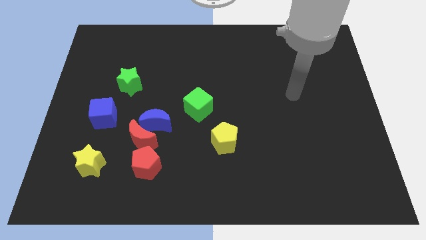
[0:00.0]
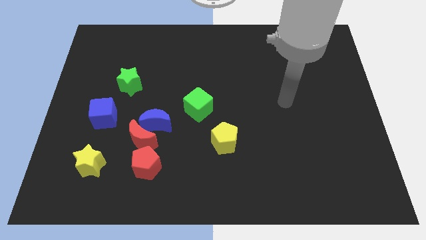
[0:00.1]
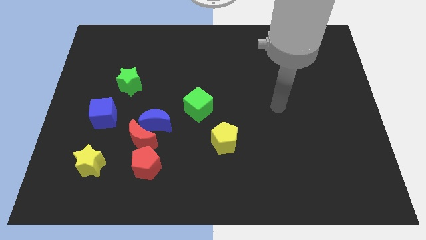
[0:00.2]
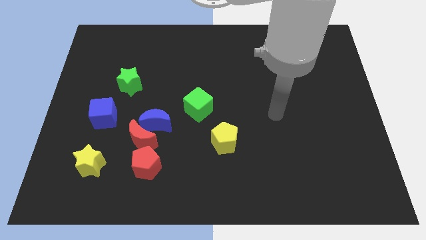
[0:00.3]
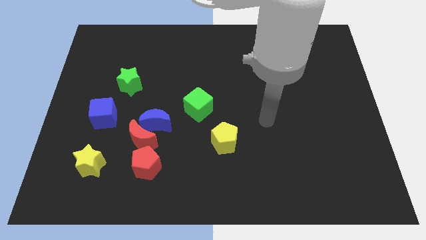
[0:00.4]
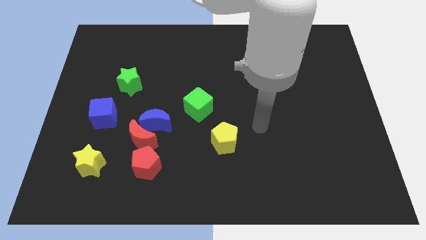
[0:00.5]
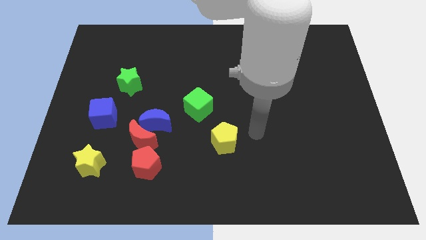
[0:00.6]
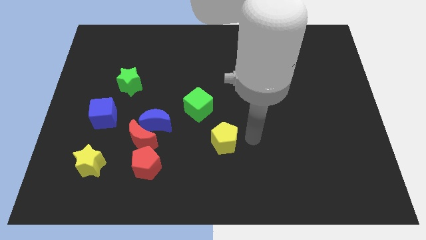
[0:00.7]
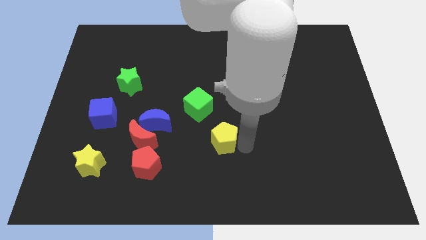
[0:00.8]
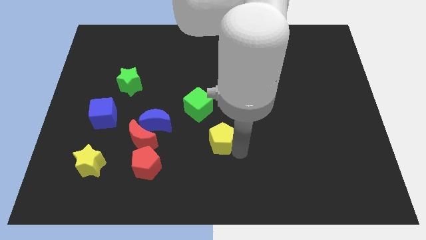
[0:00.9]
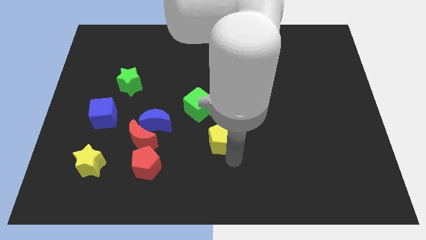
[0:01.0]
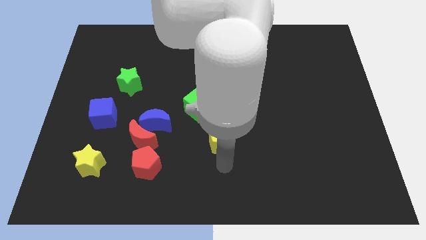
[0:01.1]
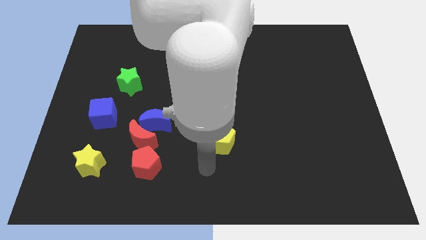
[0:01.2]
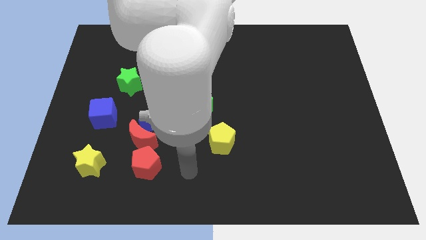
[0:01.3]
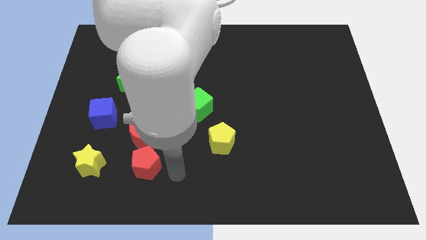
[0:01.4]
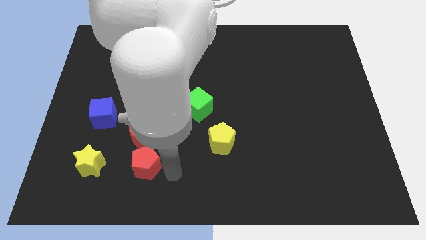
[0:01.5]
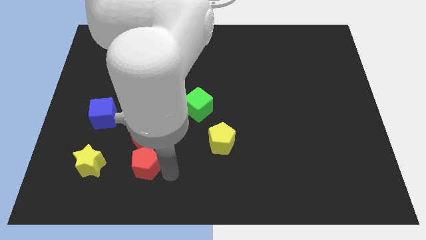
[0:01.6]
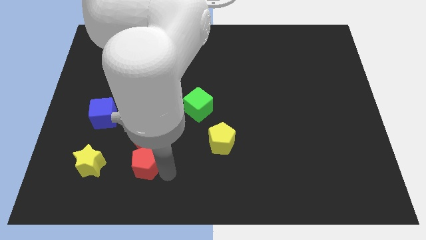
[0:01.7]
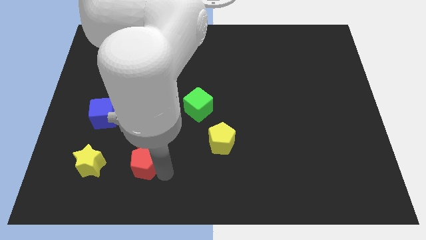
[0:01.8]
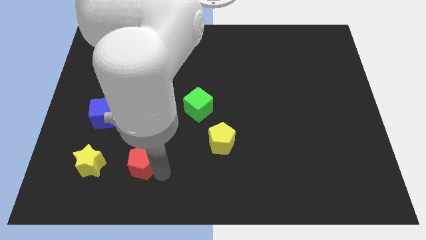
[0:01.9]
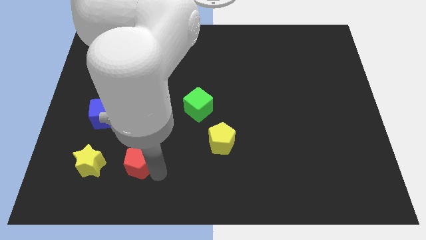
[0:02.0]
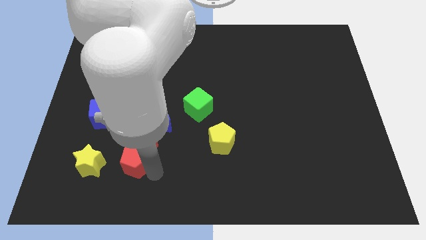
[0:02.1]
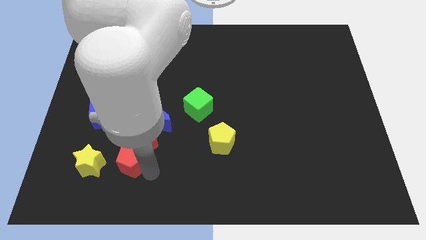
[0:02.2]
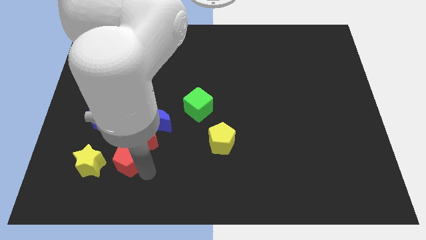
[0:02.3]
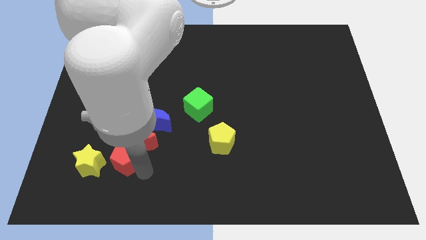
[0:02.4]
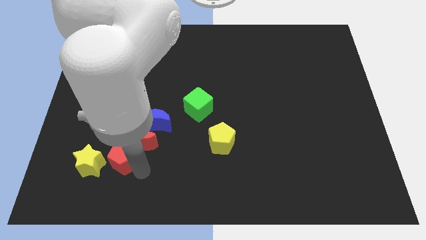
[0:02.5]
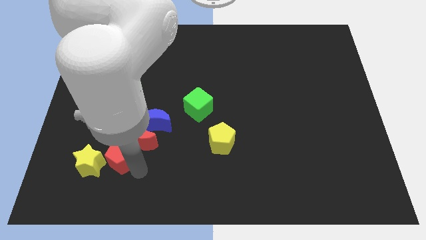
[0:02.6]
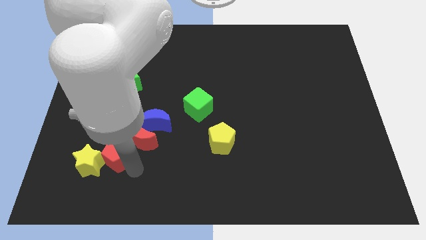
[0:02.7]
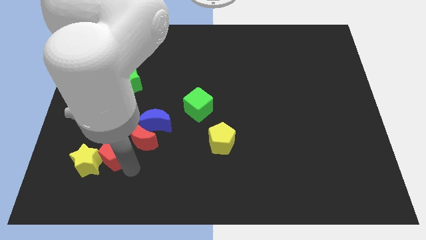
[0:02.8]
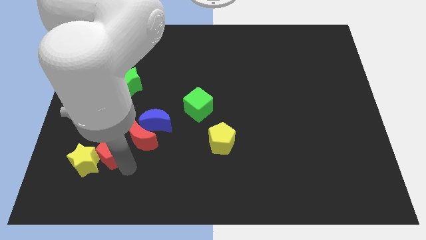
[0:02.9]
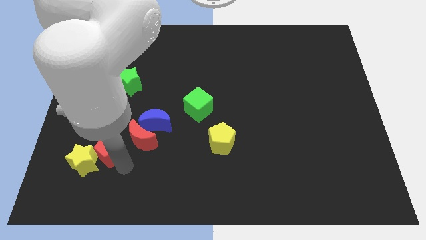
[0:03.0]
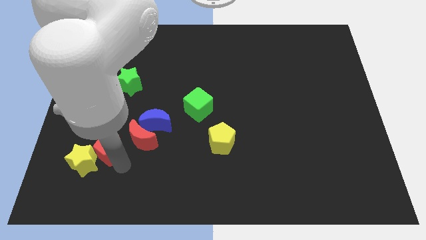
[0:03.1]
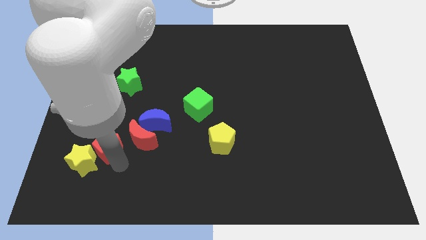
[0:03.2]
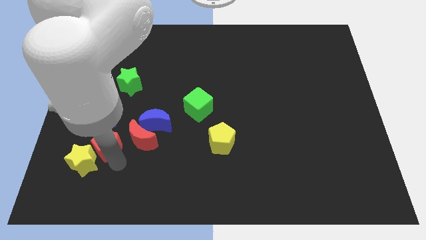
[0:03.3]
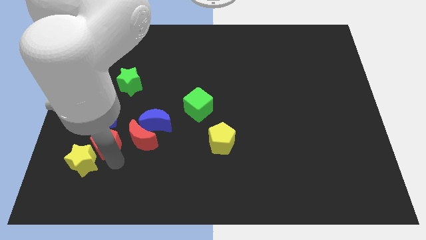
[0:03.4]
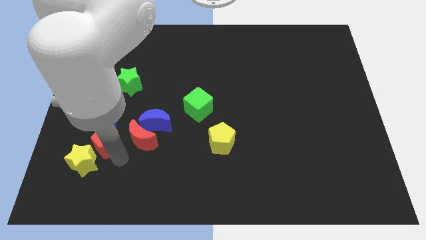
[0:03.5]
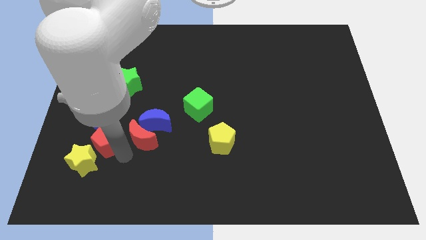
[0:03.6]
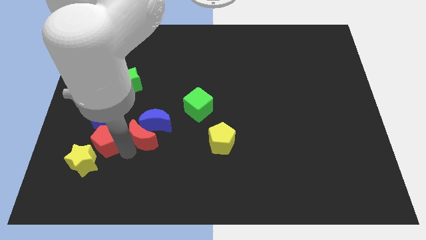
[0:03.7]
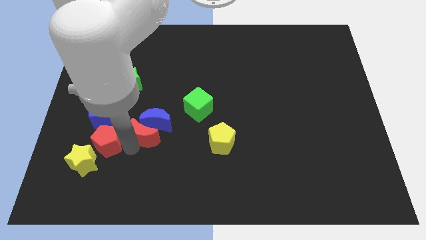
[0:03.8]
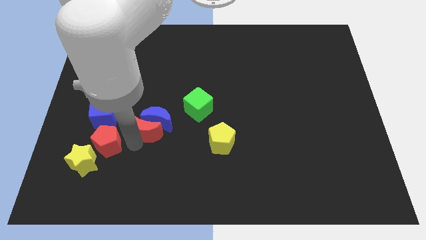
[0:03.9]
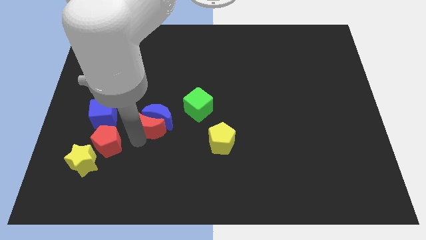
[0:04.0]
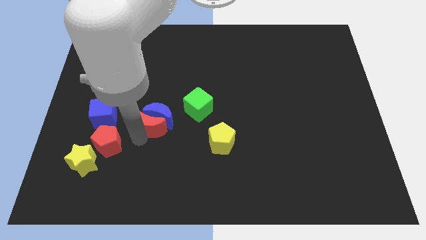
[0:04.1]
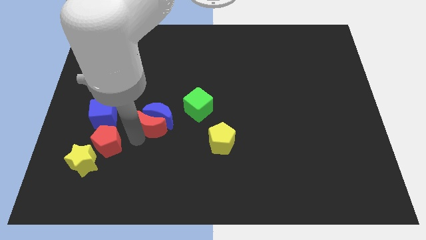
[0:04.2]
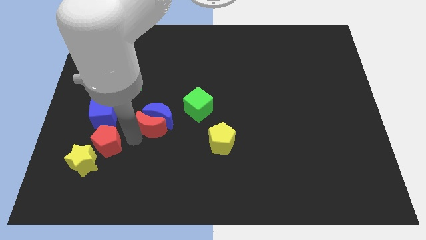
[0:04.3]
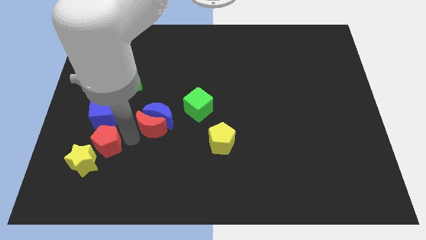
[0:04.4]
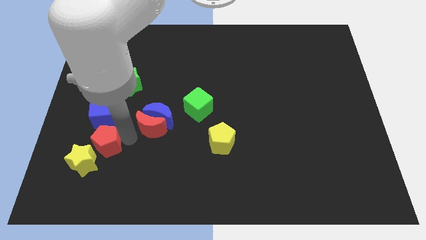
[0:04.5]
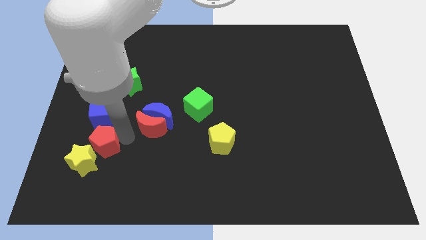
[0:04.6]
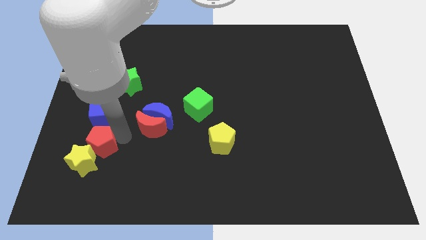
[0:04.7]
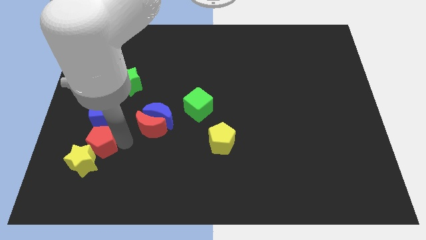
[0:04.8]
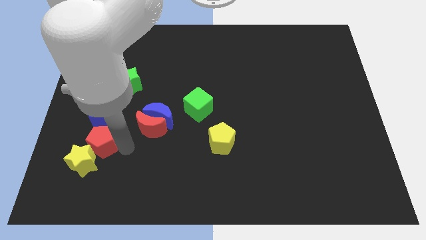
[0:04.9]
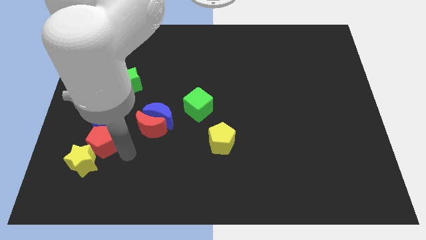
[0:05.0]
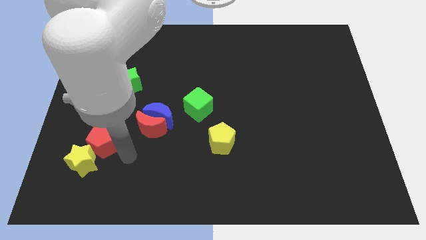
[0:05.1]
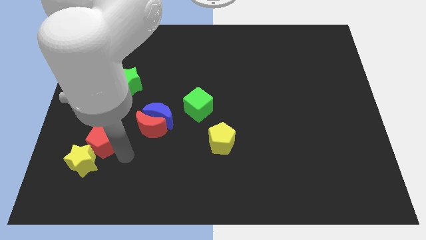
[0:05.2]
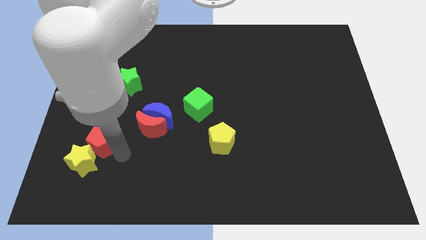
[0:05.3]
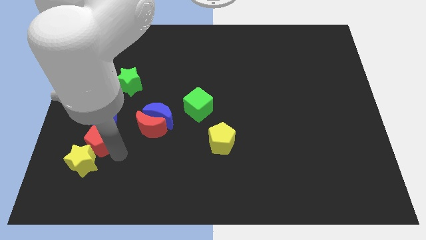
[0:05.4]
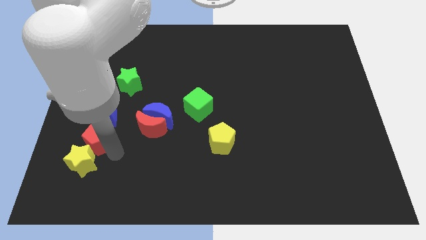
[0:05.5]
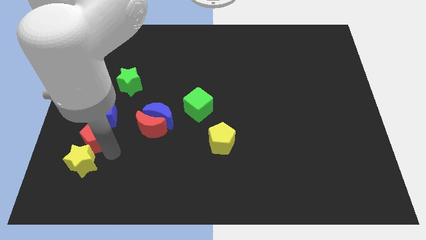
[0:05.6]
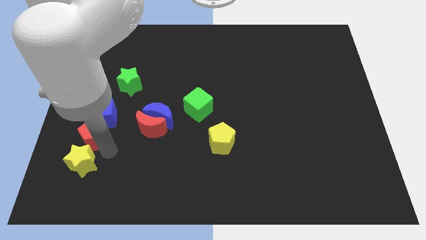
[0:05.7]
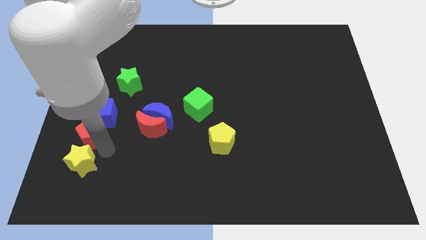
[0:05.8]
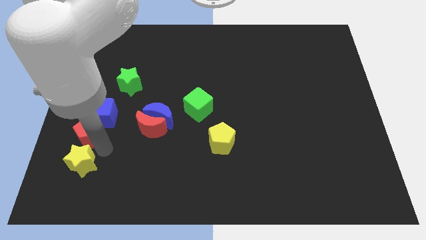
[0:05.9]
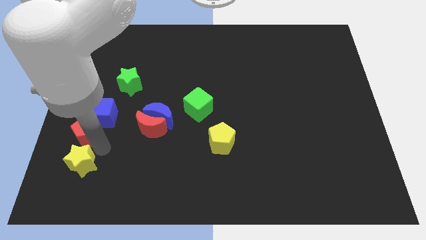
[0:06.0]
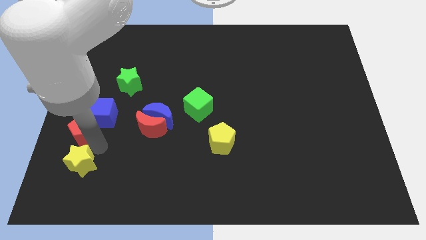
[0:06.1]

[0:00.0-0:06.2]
move the red pentagon to the center left
